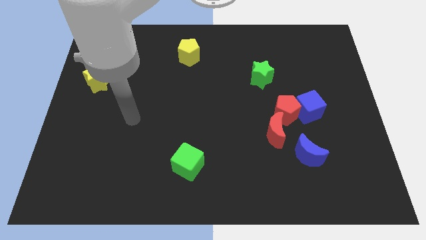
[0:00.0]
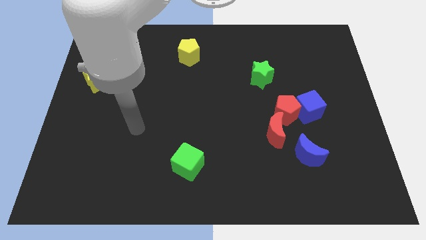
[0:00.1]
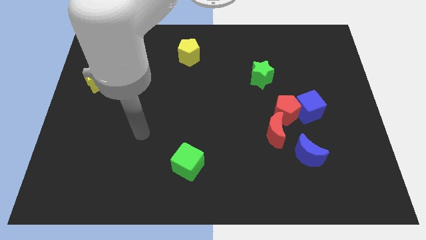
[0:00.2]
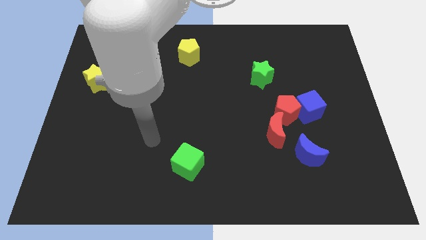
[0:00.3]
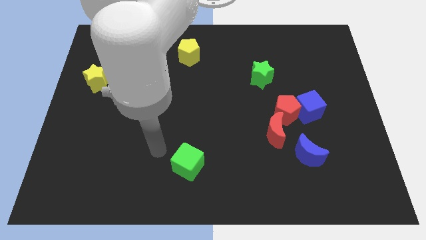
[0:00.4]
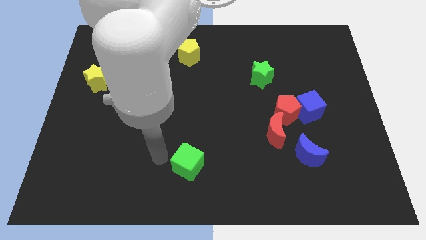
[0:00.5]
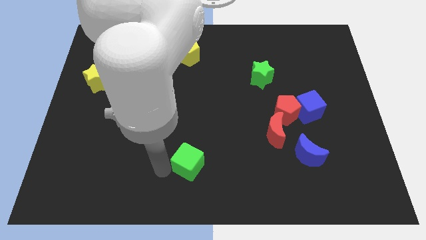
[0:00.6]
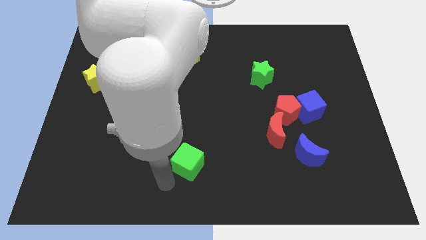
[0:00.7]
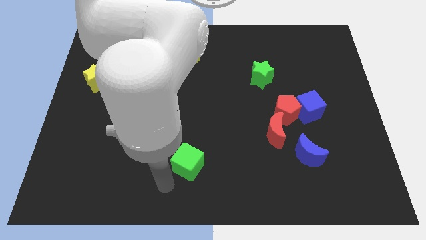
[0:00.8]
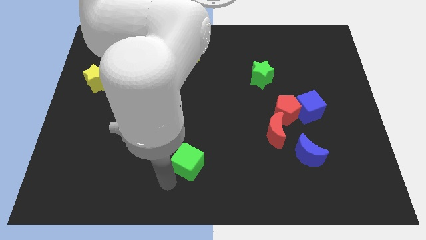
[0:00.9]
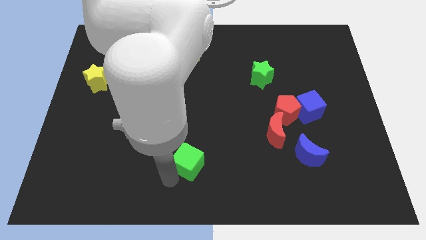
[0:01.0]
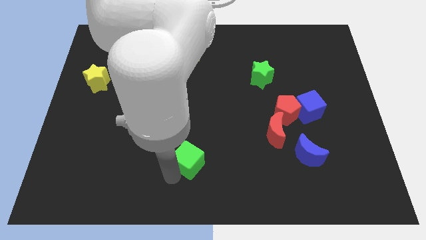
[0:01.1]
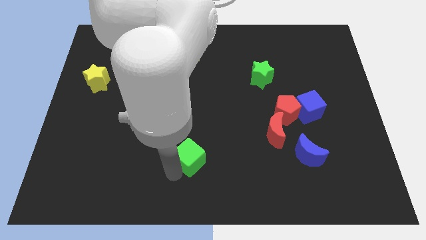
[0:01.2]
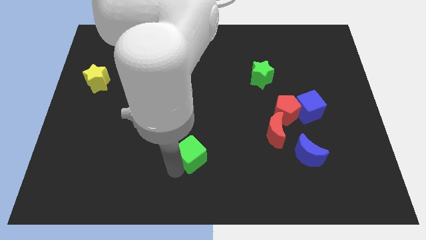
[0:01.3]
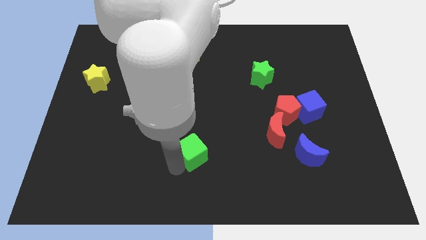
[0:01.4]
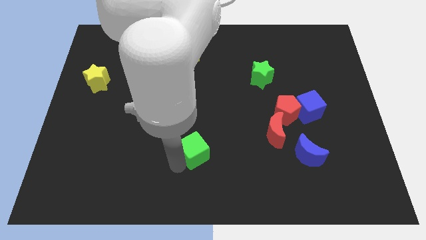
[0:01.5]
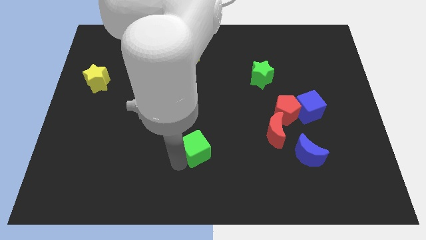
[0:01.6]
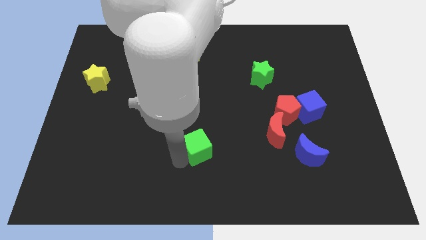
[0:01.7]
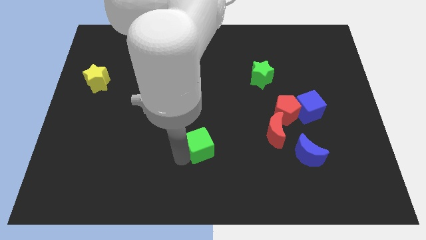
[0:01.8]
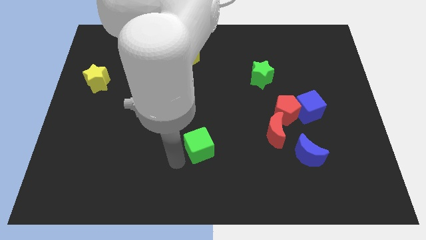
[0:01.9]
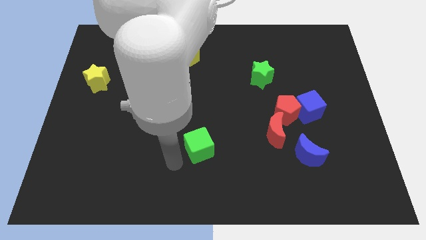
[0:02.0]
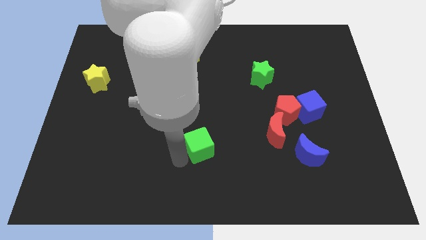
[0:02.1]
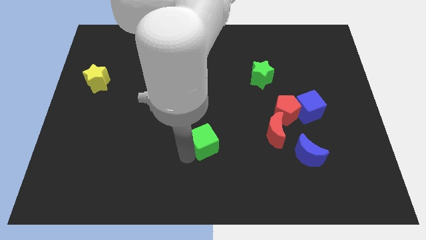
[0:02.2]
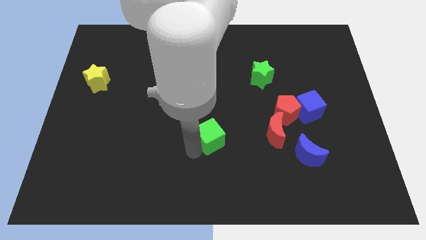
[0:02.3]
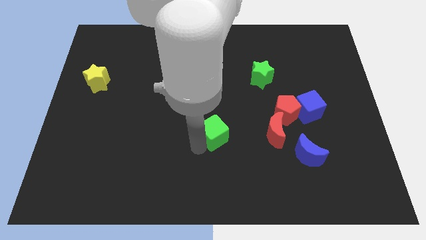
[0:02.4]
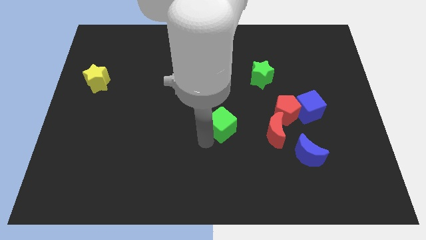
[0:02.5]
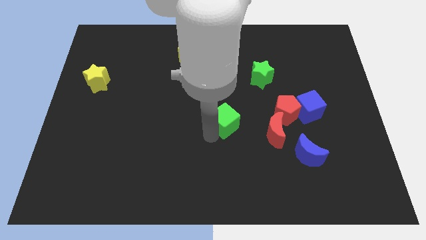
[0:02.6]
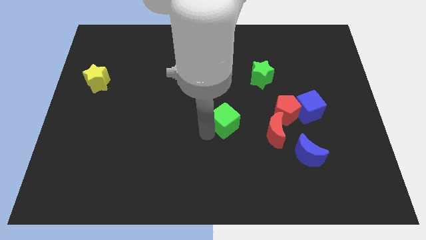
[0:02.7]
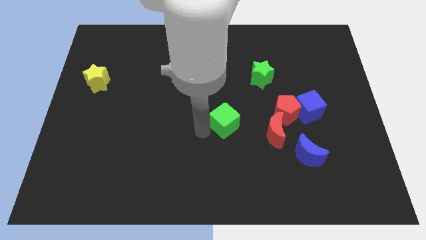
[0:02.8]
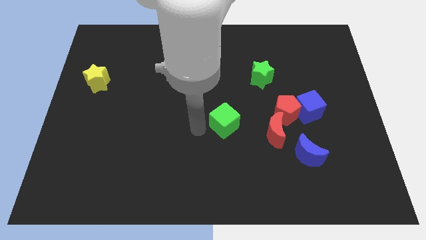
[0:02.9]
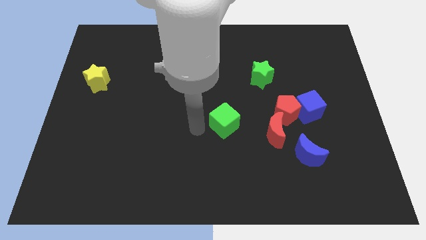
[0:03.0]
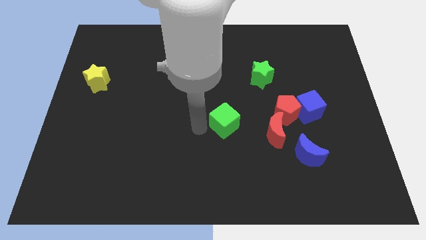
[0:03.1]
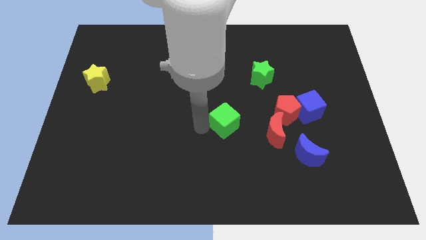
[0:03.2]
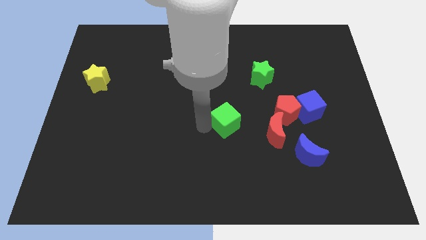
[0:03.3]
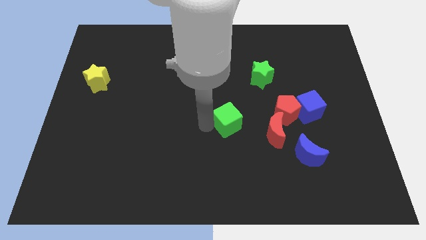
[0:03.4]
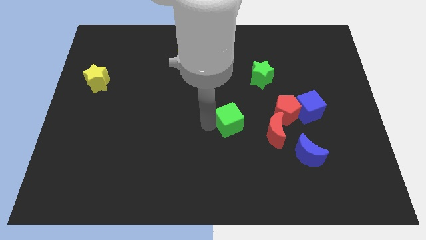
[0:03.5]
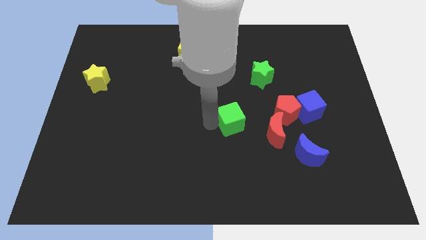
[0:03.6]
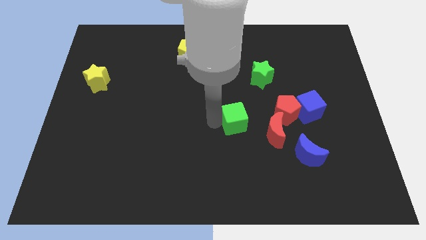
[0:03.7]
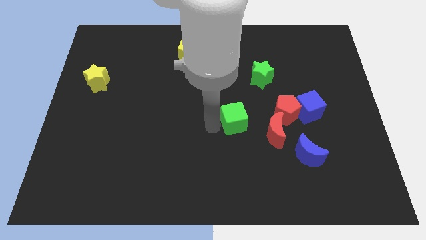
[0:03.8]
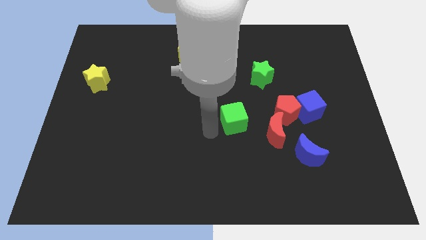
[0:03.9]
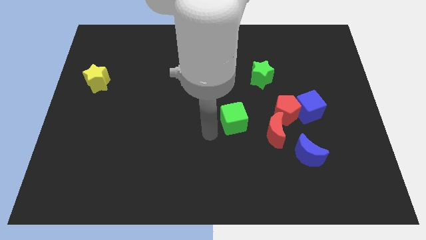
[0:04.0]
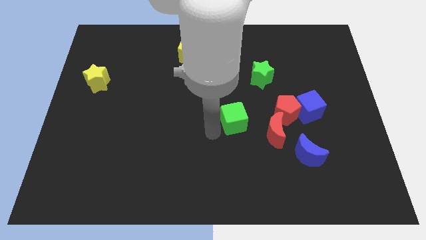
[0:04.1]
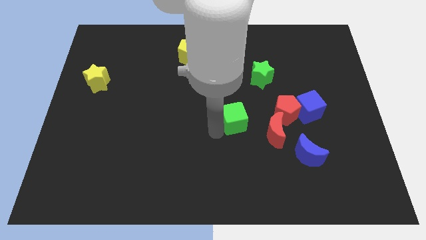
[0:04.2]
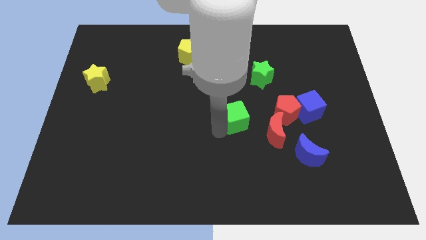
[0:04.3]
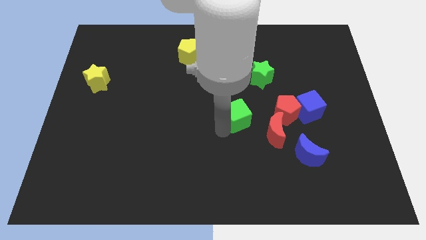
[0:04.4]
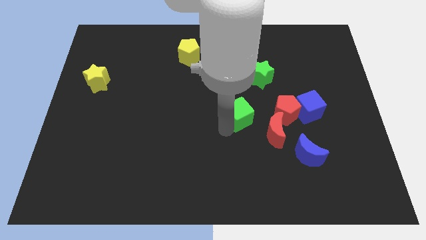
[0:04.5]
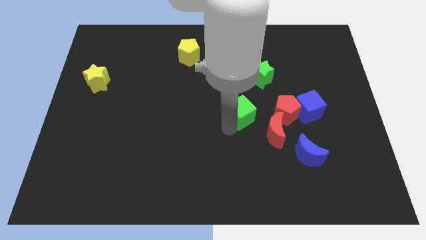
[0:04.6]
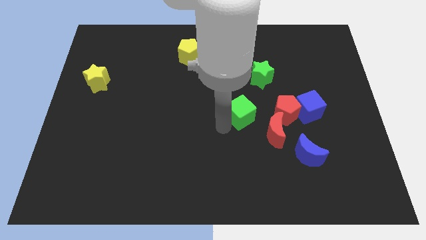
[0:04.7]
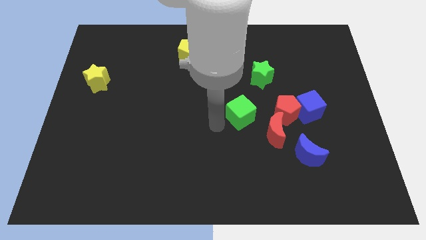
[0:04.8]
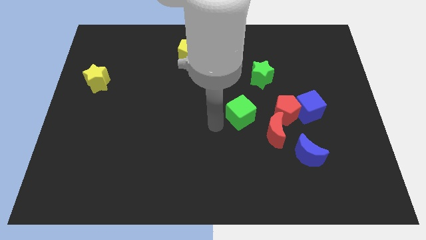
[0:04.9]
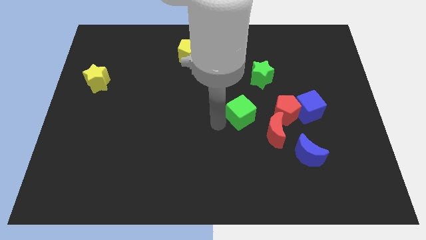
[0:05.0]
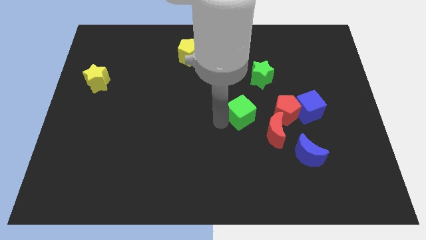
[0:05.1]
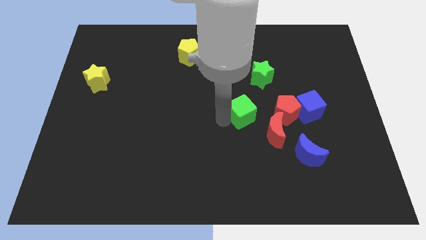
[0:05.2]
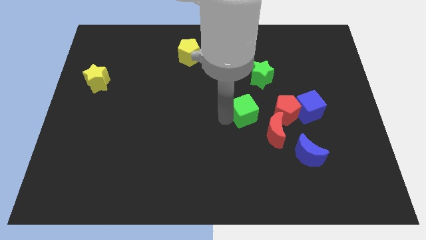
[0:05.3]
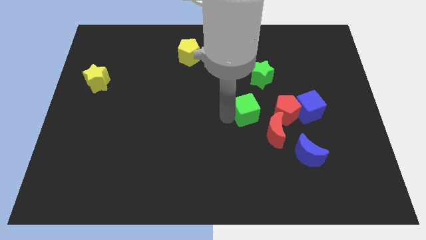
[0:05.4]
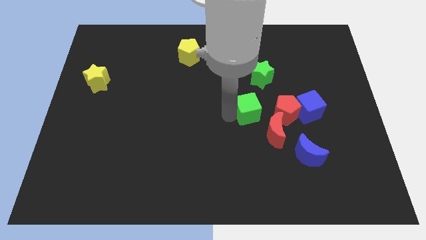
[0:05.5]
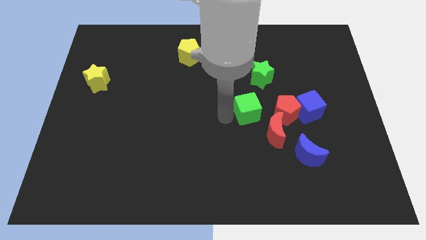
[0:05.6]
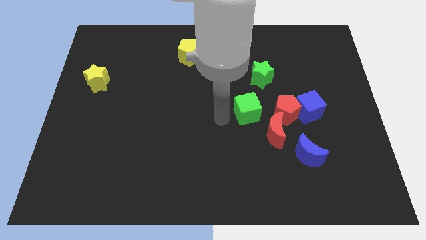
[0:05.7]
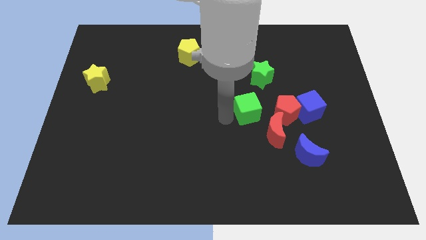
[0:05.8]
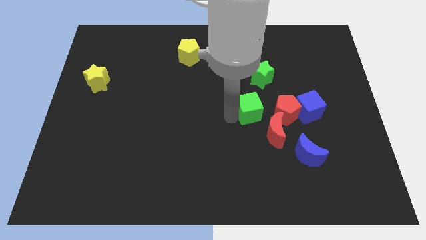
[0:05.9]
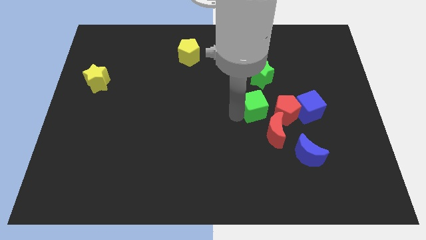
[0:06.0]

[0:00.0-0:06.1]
push the green cube diagonally up and to the right

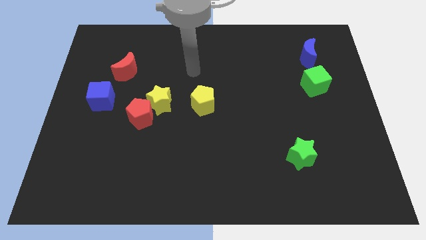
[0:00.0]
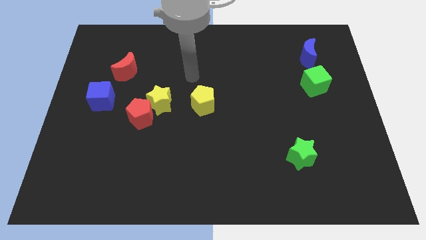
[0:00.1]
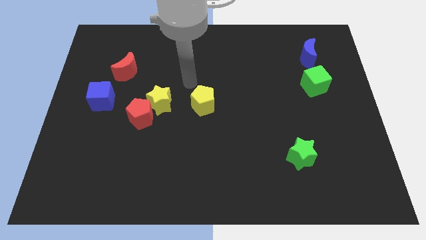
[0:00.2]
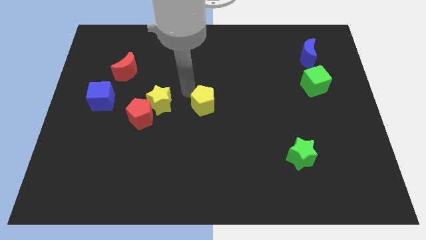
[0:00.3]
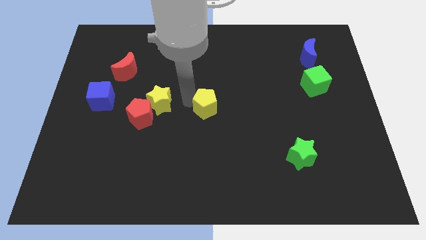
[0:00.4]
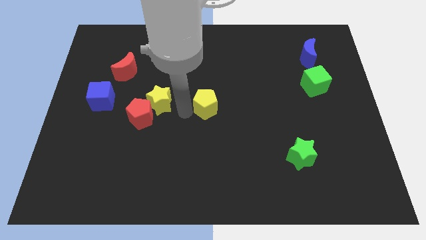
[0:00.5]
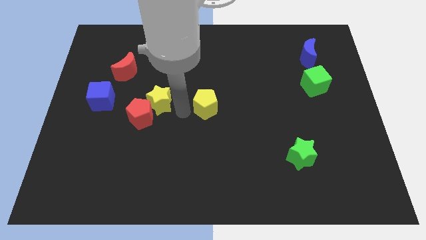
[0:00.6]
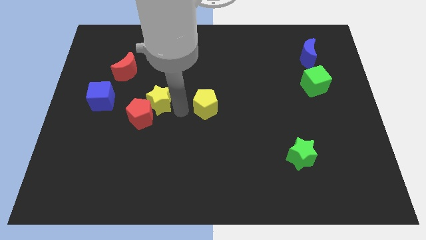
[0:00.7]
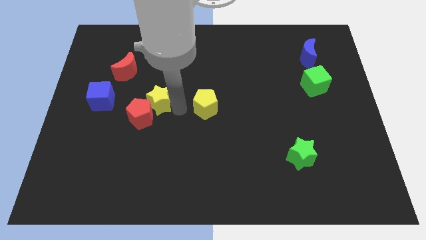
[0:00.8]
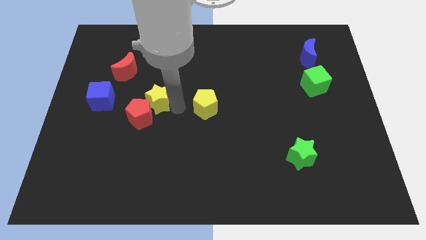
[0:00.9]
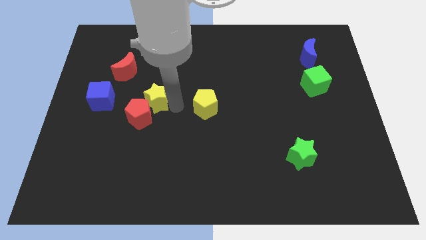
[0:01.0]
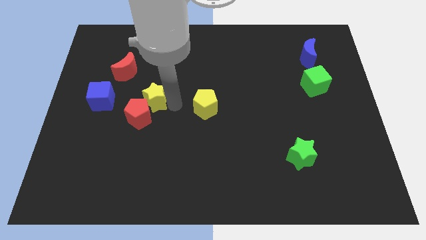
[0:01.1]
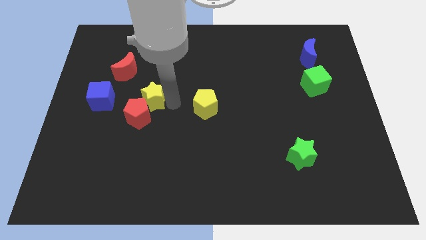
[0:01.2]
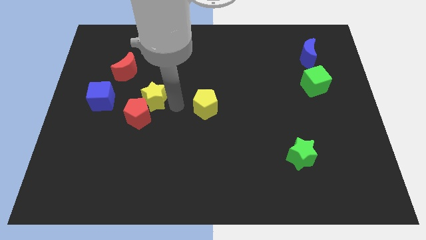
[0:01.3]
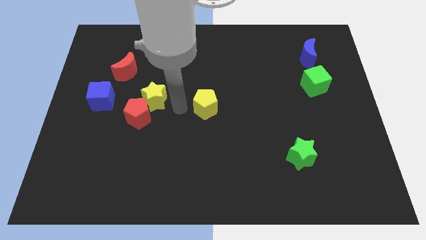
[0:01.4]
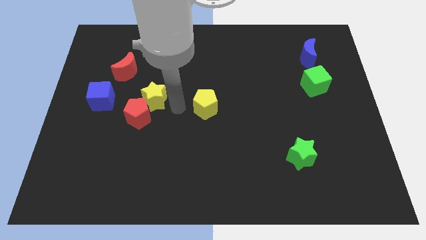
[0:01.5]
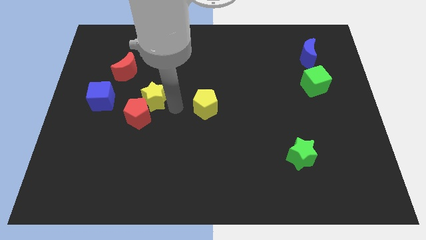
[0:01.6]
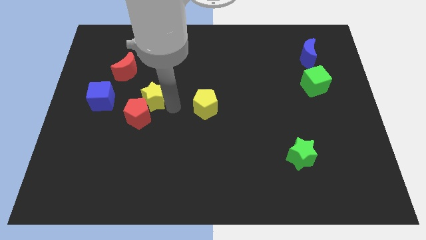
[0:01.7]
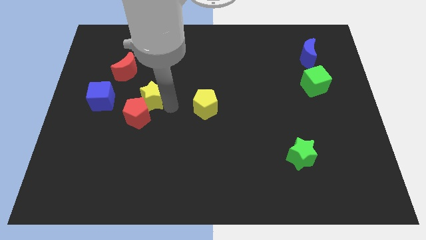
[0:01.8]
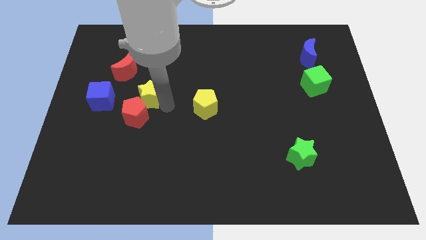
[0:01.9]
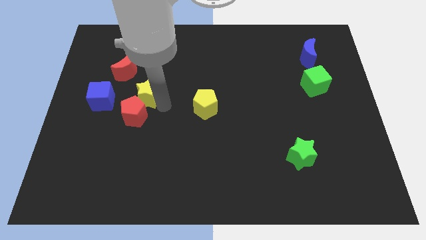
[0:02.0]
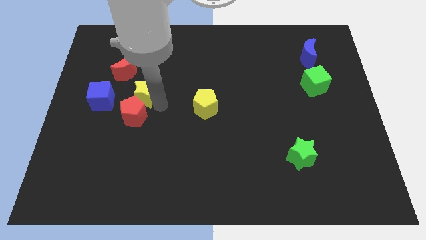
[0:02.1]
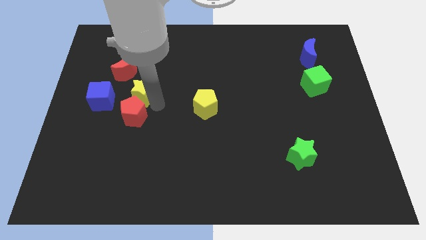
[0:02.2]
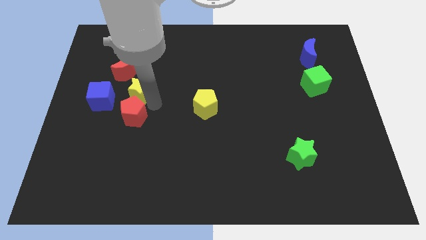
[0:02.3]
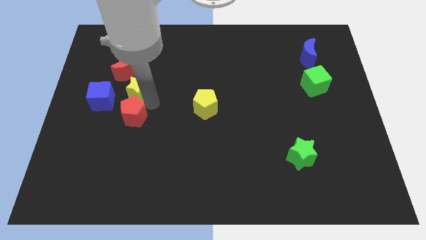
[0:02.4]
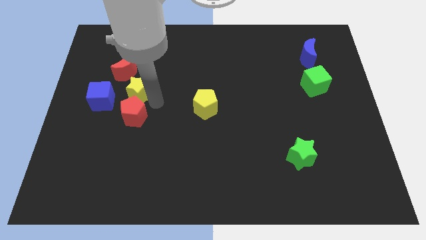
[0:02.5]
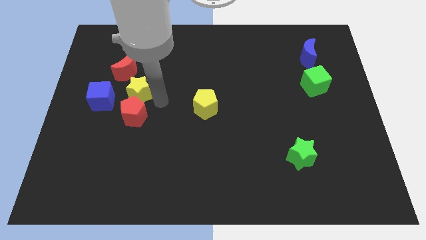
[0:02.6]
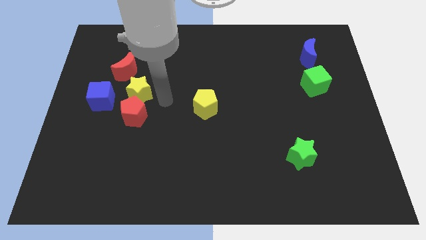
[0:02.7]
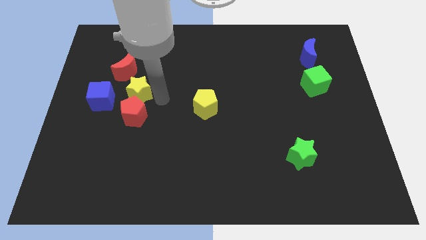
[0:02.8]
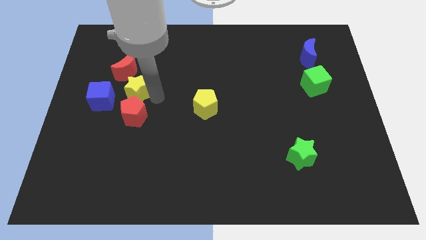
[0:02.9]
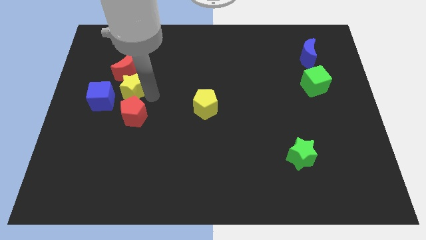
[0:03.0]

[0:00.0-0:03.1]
move the yellow star a little bit diagonally upwards and to the left
